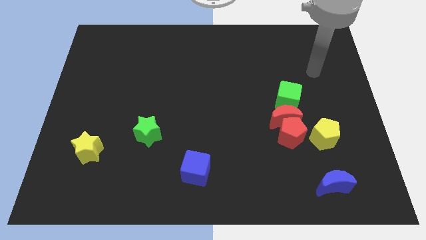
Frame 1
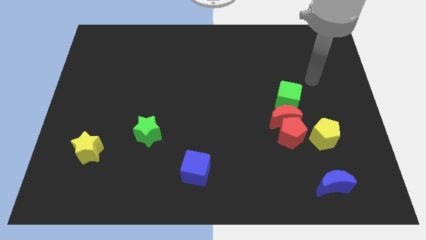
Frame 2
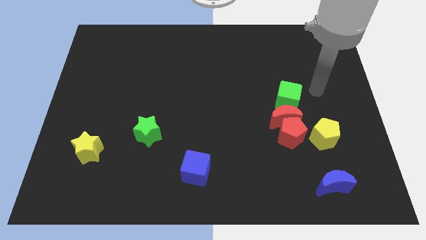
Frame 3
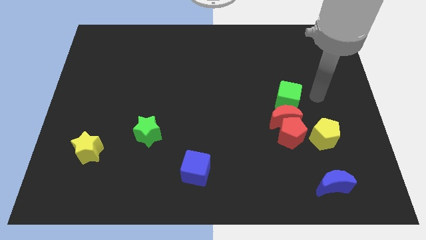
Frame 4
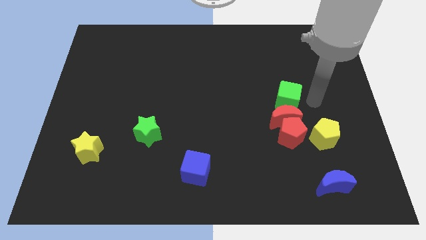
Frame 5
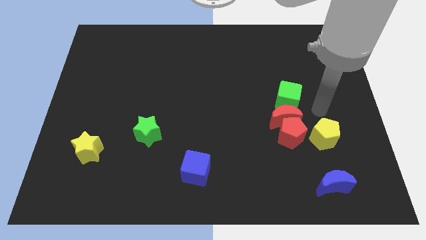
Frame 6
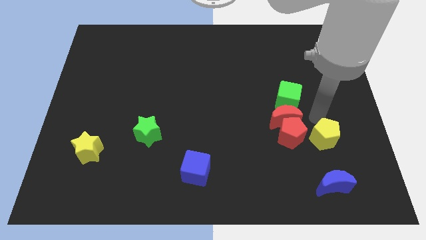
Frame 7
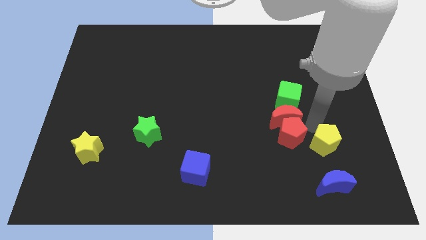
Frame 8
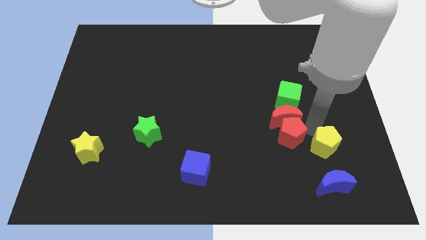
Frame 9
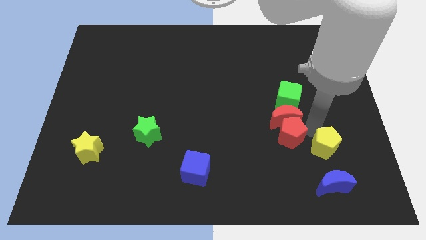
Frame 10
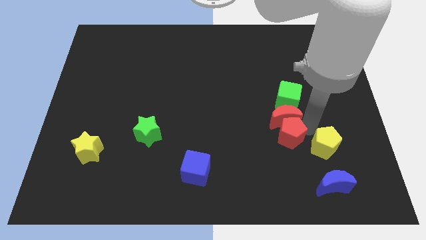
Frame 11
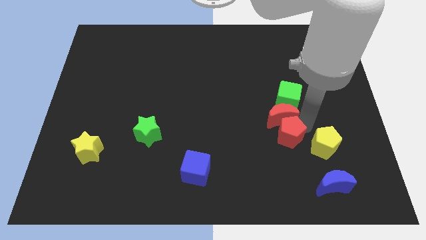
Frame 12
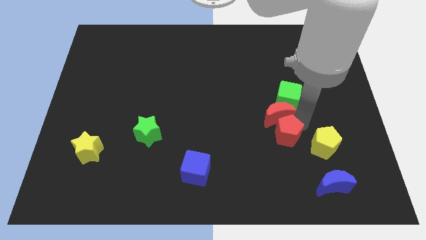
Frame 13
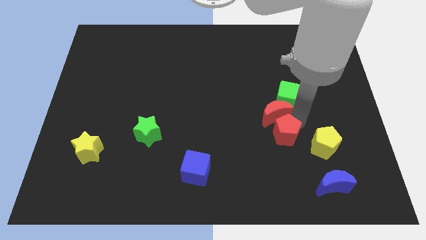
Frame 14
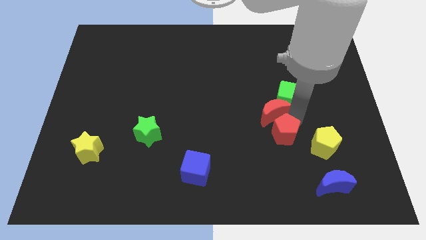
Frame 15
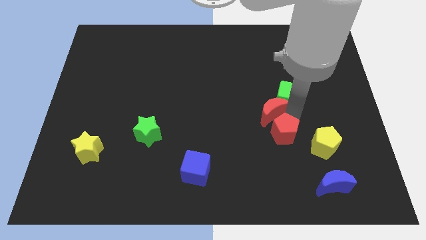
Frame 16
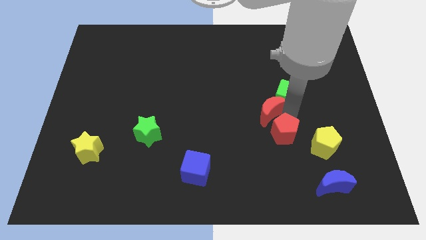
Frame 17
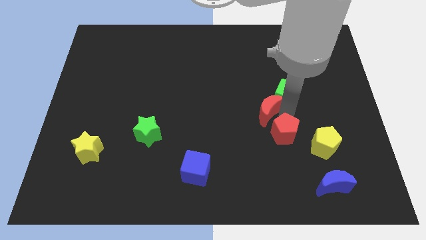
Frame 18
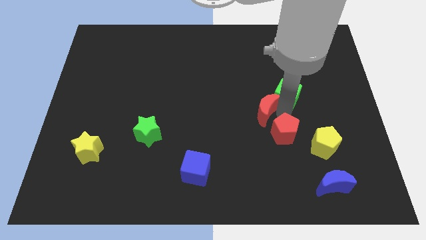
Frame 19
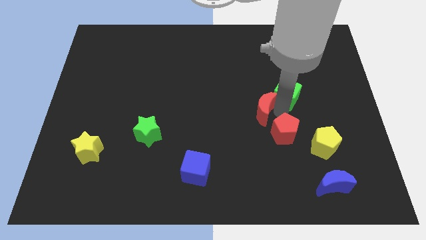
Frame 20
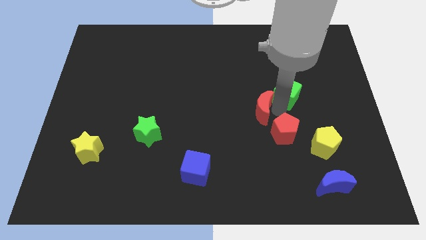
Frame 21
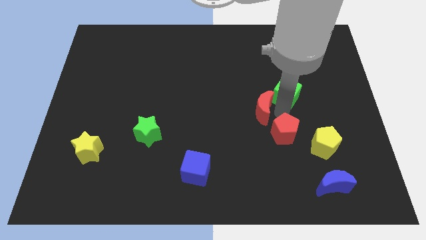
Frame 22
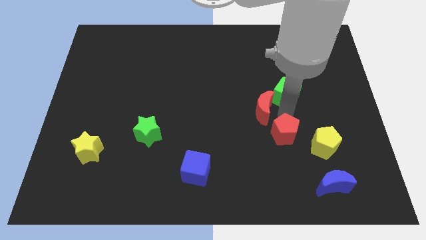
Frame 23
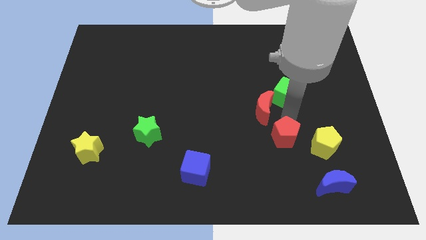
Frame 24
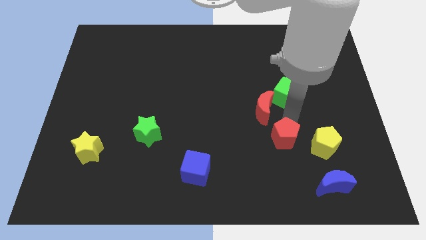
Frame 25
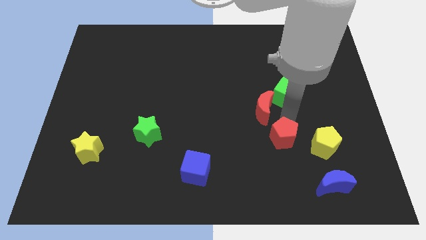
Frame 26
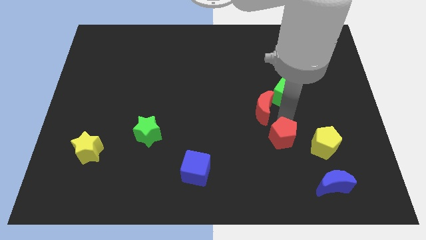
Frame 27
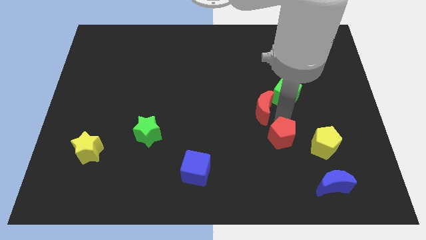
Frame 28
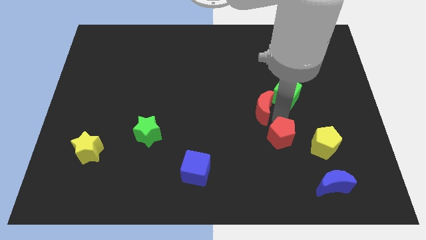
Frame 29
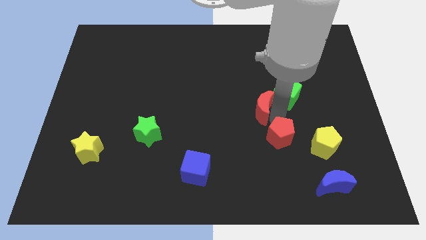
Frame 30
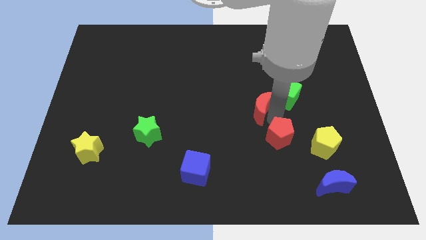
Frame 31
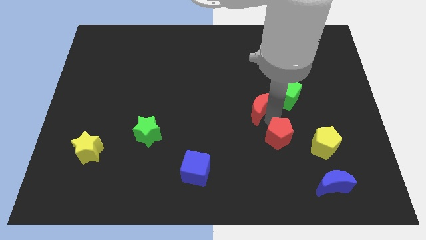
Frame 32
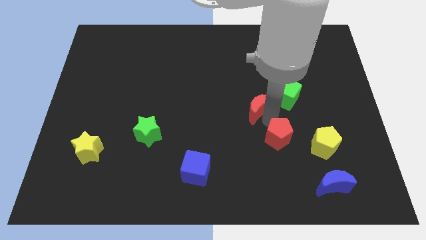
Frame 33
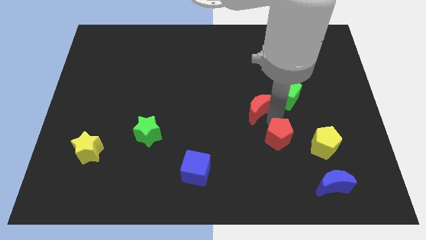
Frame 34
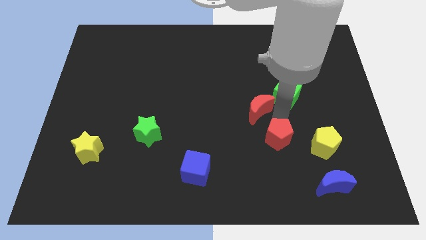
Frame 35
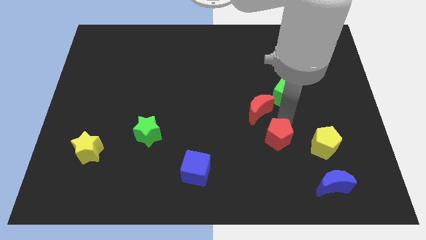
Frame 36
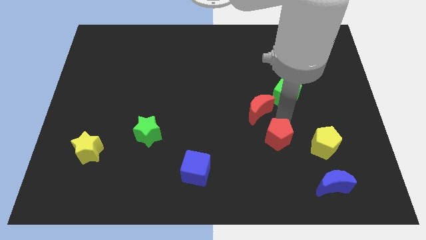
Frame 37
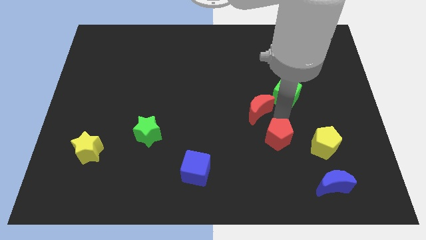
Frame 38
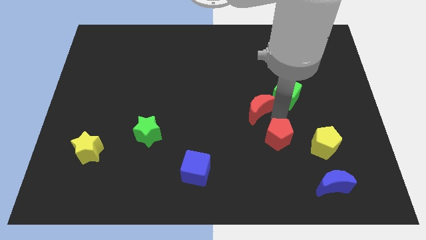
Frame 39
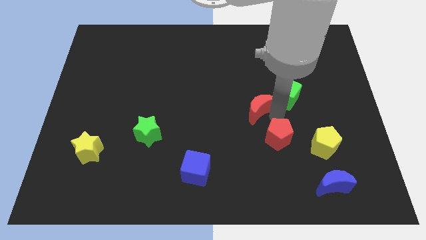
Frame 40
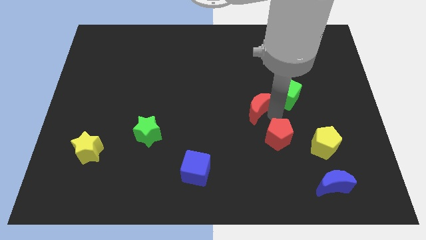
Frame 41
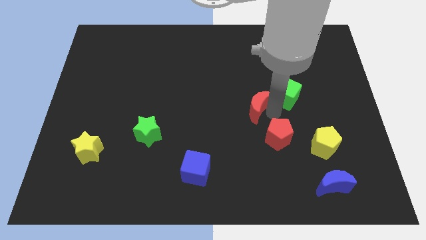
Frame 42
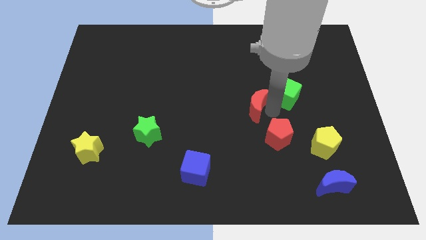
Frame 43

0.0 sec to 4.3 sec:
move the red moon away from the red pentagon, green cube, and yellow pentagon

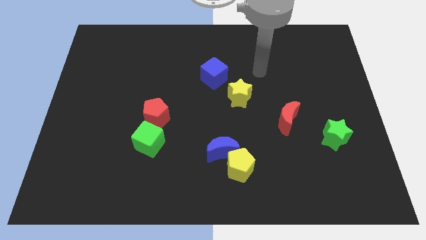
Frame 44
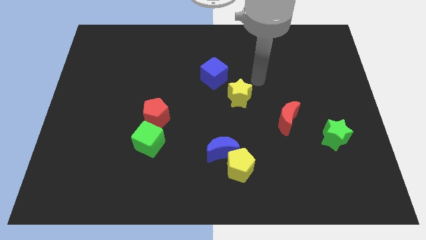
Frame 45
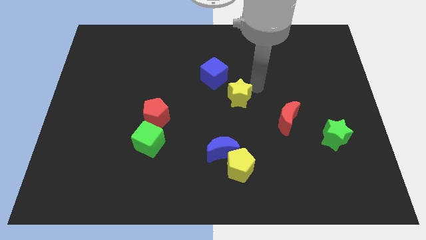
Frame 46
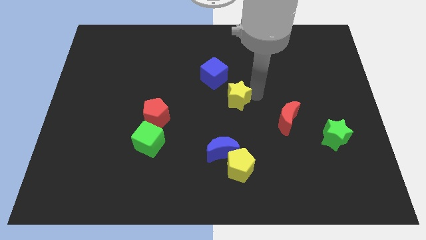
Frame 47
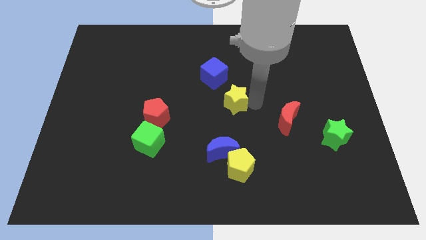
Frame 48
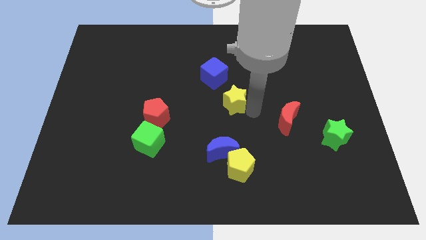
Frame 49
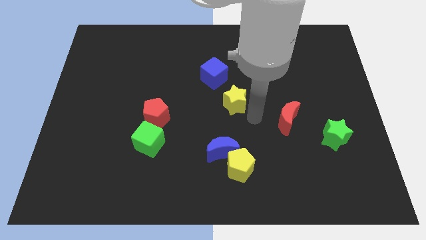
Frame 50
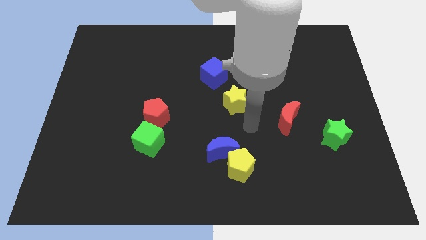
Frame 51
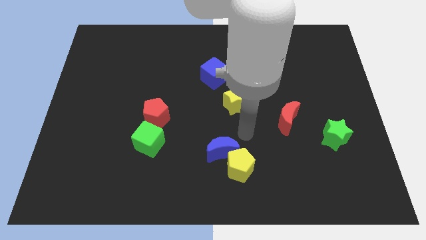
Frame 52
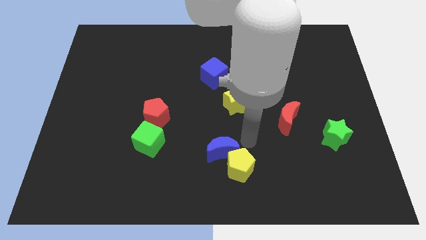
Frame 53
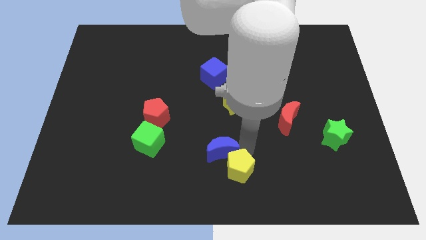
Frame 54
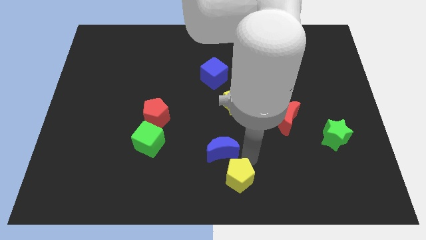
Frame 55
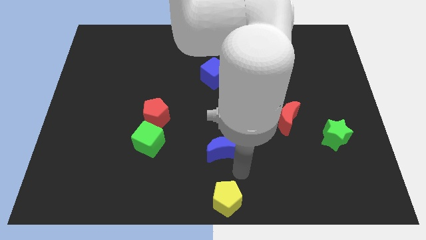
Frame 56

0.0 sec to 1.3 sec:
separate the blue moon from the yellow pentagon

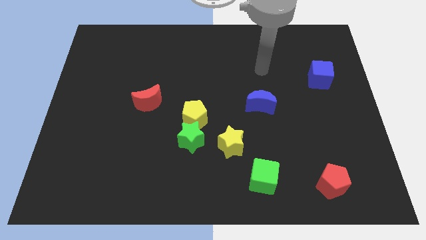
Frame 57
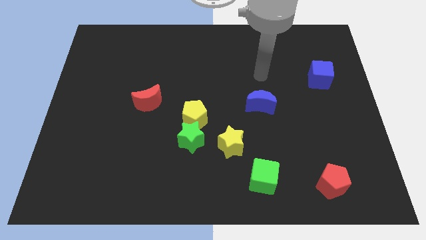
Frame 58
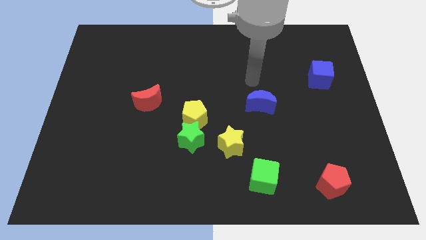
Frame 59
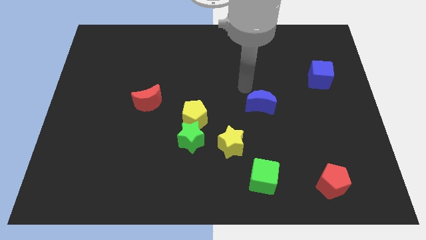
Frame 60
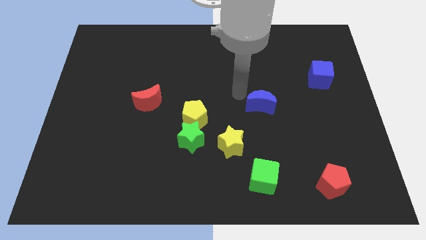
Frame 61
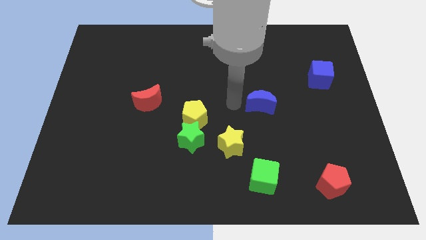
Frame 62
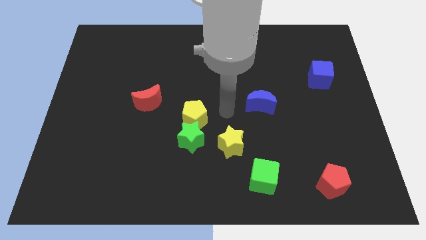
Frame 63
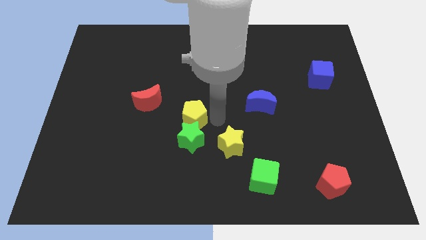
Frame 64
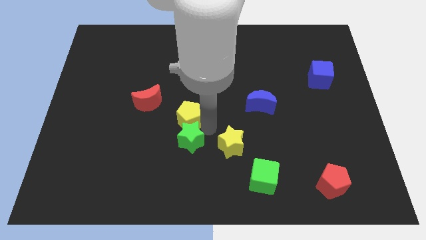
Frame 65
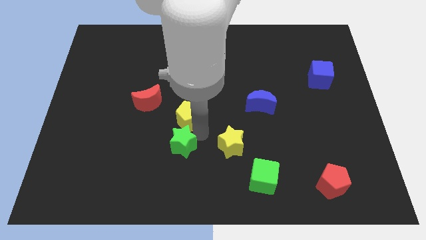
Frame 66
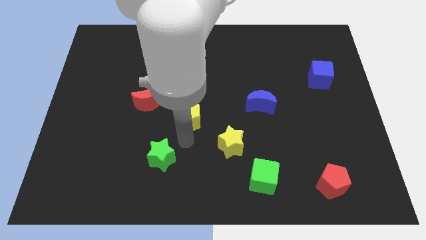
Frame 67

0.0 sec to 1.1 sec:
separate the yellow pentagon from the green star

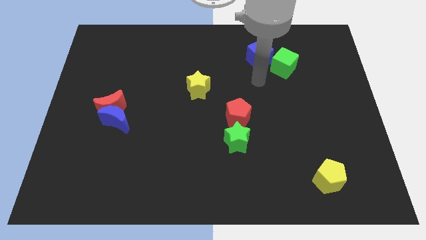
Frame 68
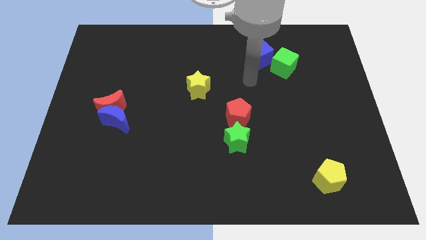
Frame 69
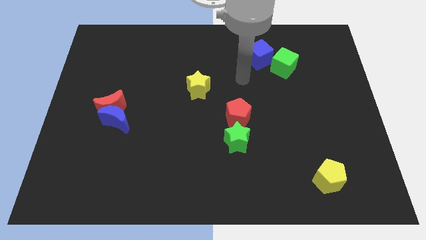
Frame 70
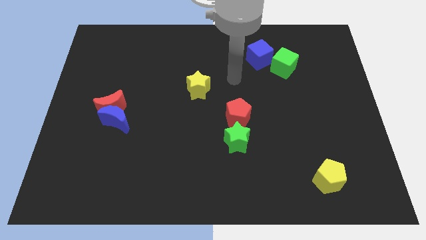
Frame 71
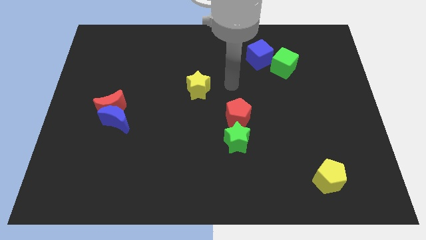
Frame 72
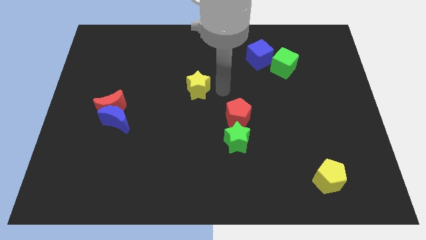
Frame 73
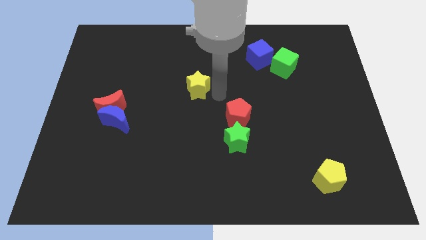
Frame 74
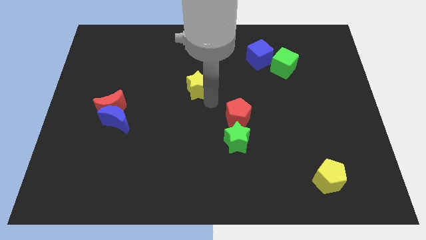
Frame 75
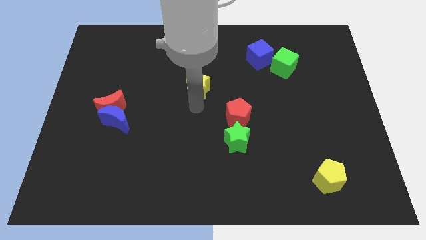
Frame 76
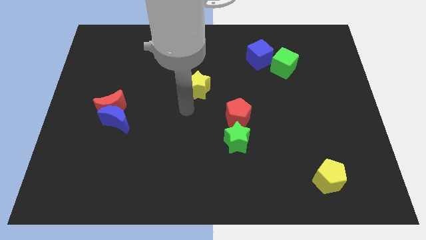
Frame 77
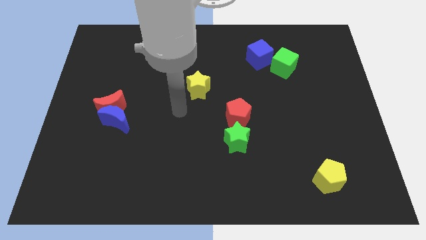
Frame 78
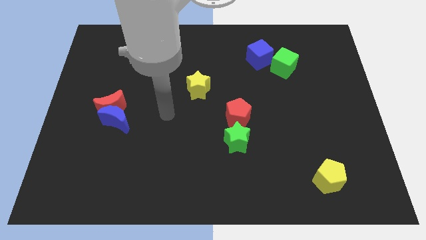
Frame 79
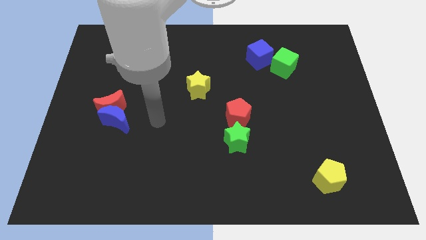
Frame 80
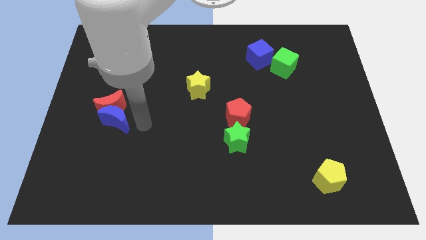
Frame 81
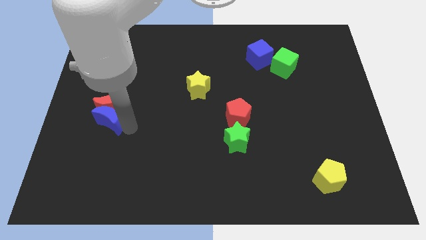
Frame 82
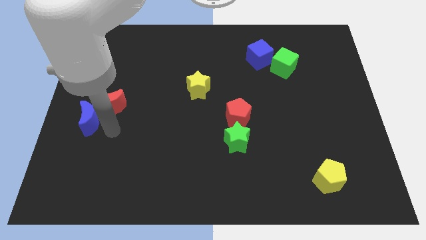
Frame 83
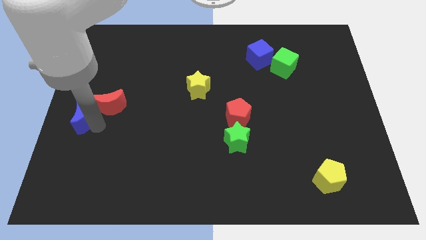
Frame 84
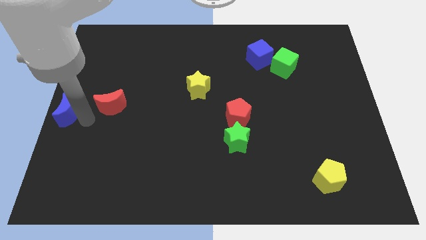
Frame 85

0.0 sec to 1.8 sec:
separate the red moon from the blue moon

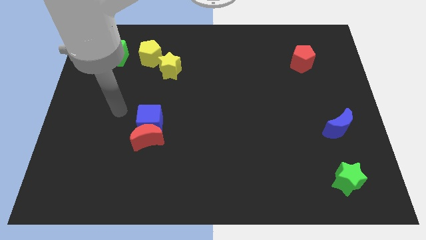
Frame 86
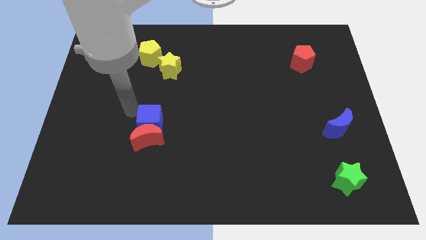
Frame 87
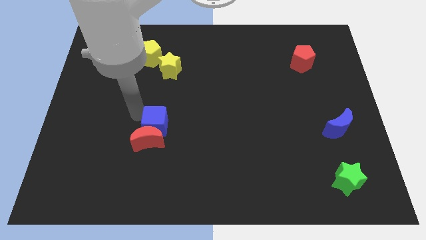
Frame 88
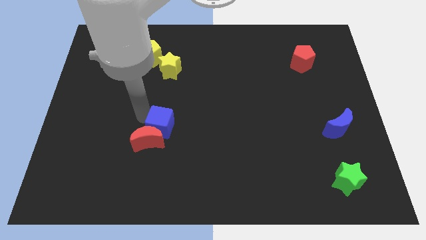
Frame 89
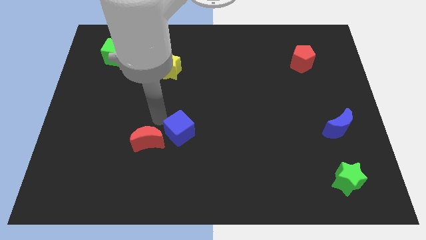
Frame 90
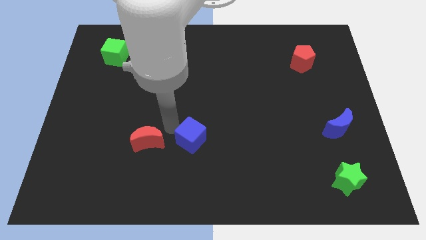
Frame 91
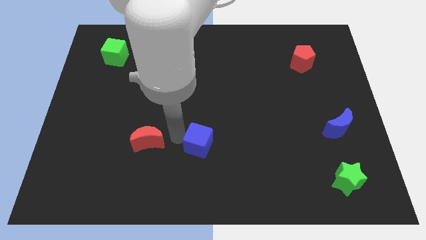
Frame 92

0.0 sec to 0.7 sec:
move the red moon away from the blue cube

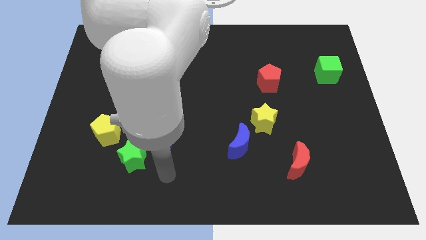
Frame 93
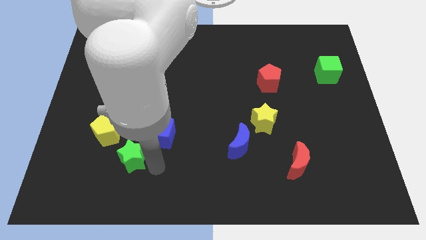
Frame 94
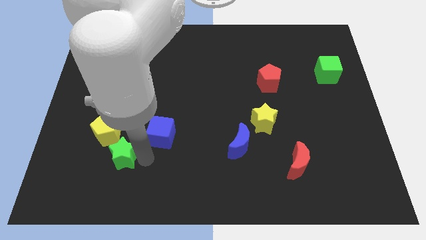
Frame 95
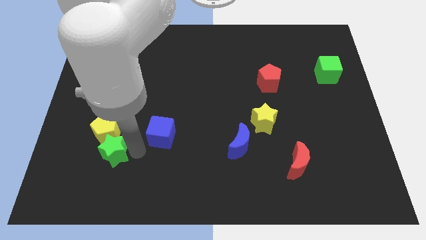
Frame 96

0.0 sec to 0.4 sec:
separate the blue cube from the green star
